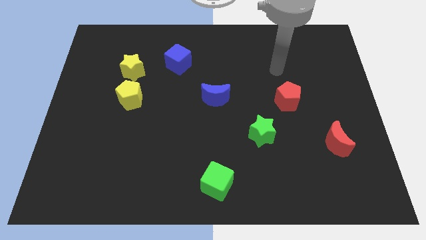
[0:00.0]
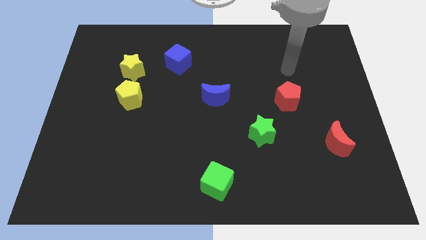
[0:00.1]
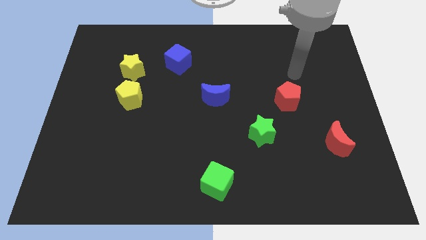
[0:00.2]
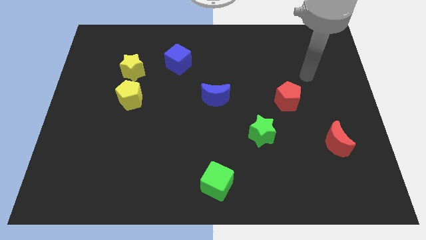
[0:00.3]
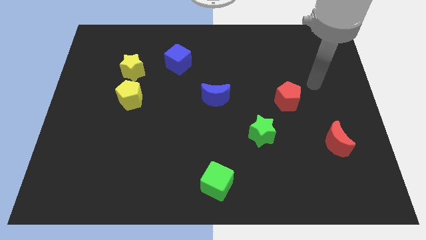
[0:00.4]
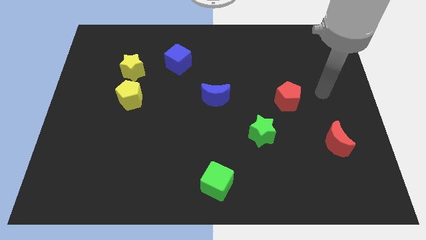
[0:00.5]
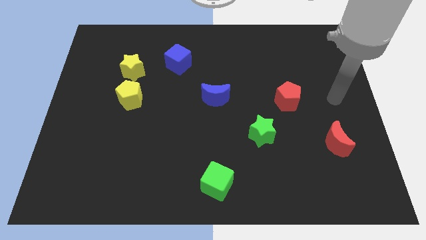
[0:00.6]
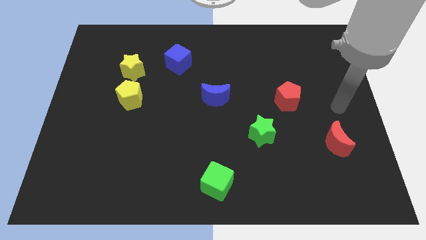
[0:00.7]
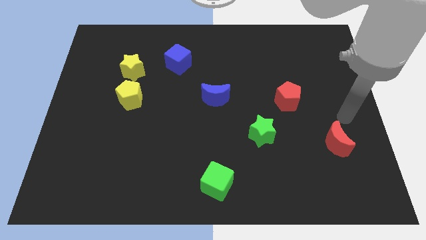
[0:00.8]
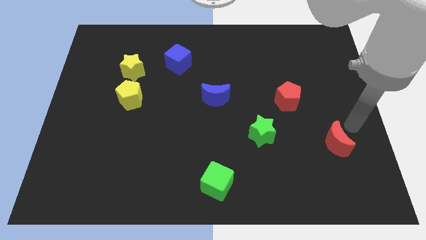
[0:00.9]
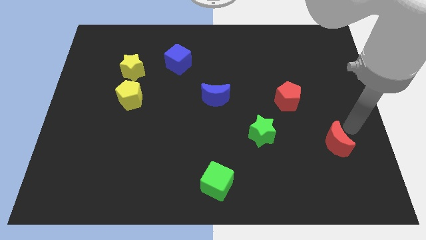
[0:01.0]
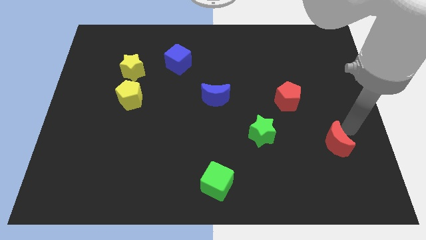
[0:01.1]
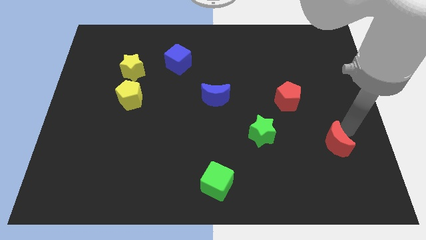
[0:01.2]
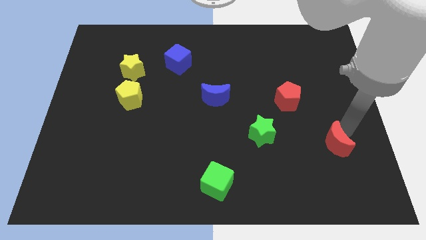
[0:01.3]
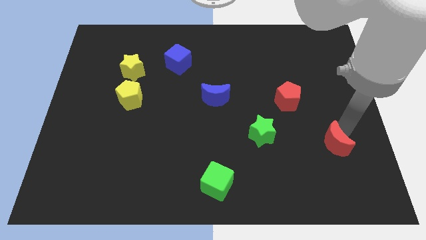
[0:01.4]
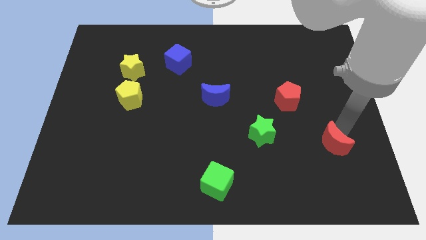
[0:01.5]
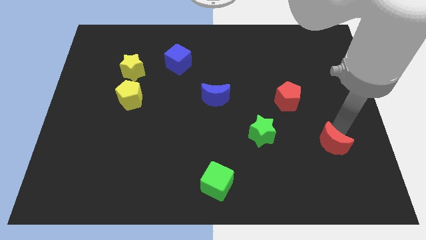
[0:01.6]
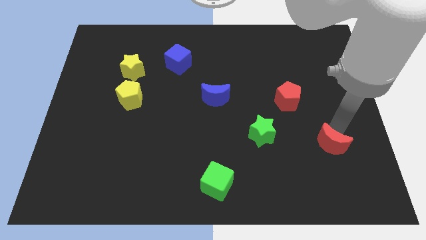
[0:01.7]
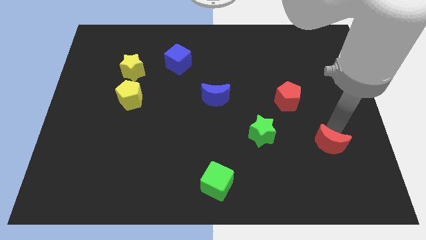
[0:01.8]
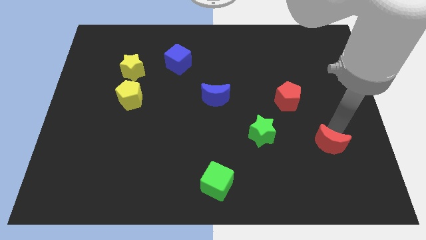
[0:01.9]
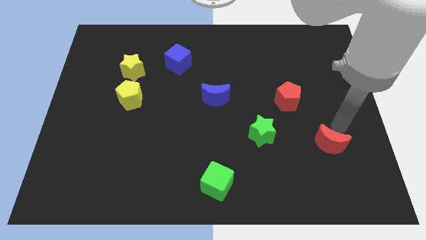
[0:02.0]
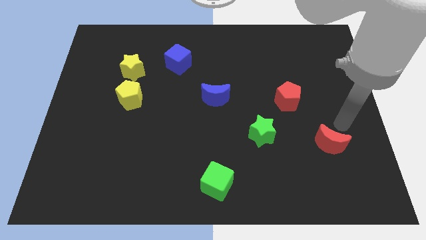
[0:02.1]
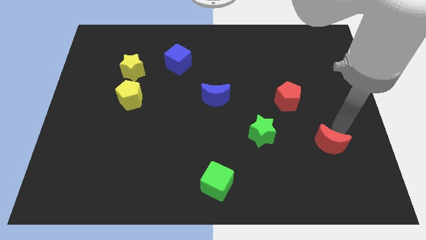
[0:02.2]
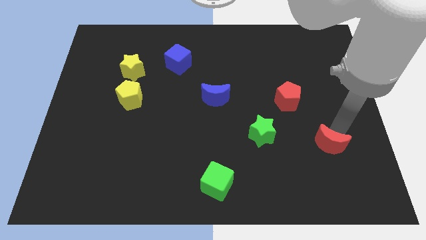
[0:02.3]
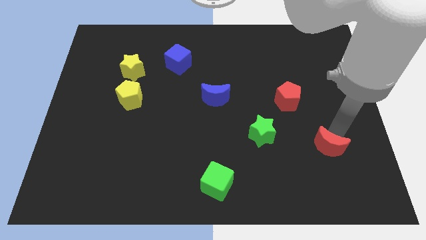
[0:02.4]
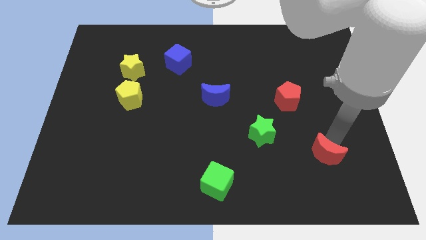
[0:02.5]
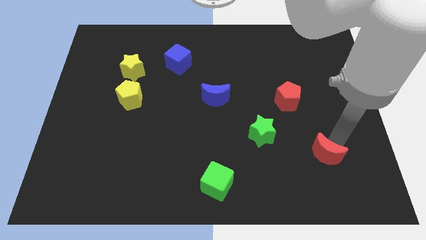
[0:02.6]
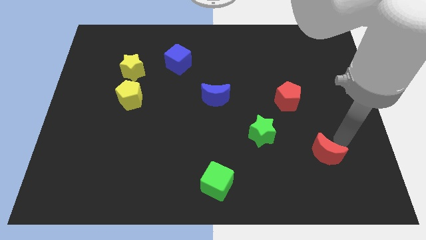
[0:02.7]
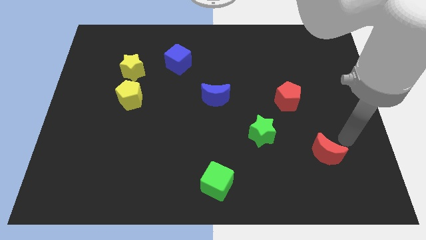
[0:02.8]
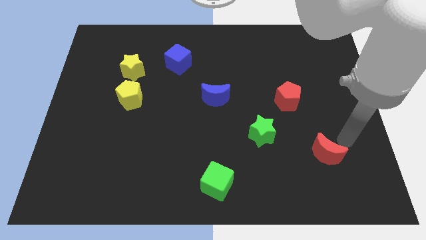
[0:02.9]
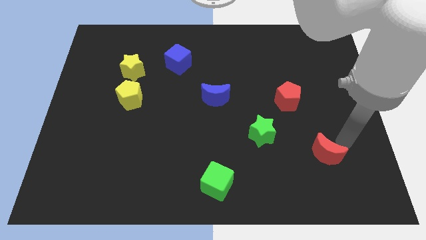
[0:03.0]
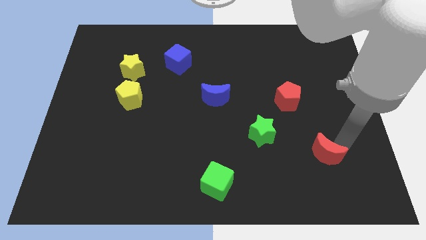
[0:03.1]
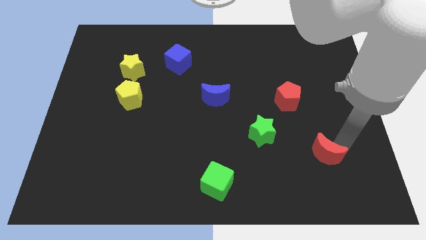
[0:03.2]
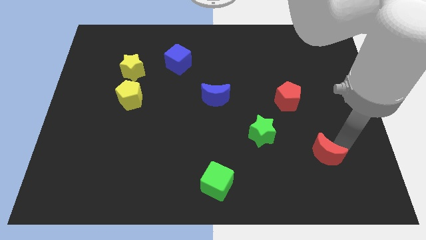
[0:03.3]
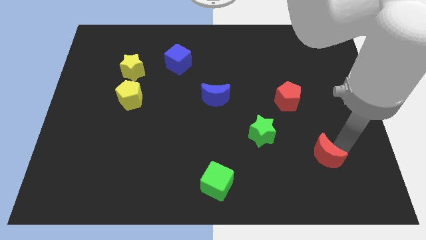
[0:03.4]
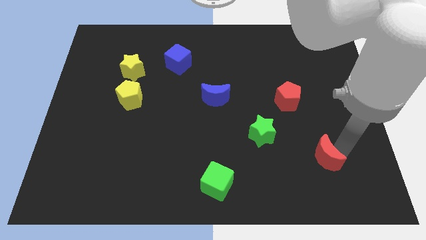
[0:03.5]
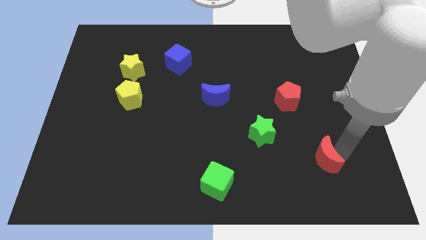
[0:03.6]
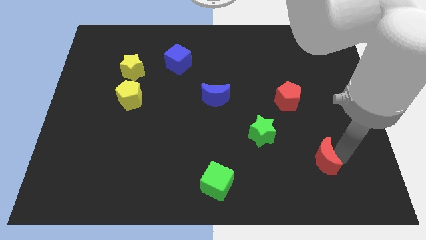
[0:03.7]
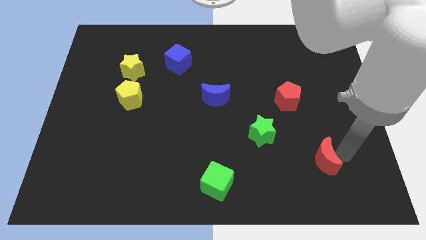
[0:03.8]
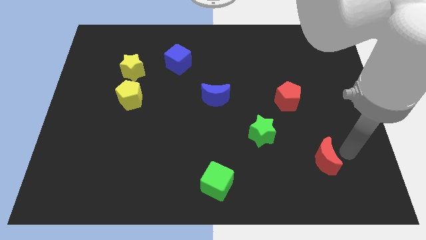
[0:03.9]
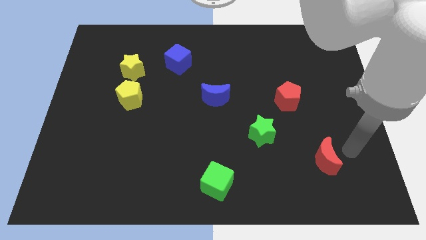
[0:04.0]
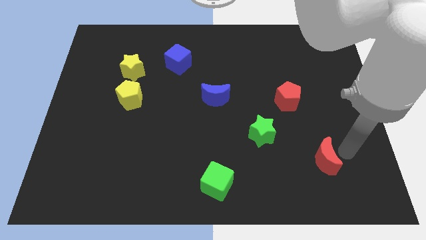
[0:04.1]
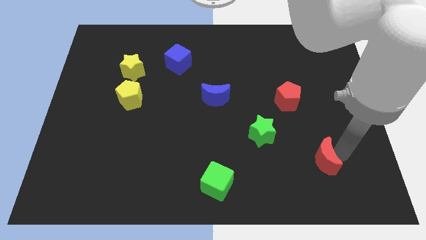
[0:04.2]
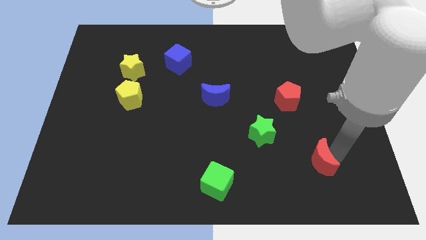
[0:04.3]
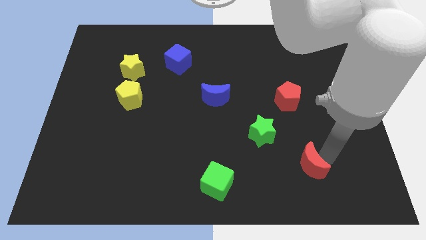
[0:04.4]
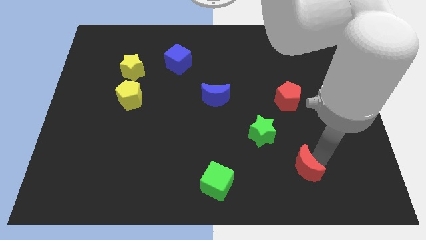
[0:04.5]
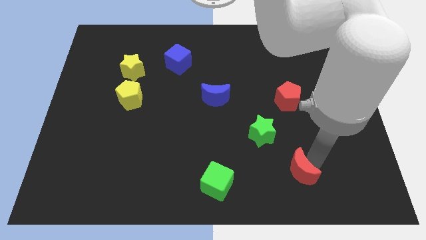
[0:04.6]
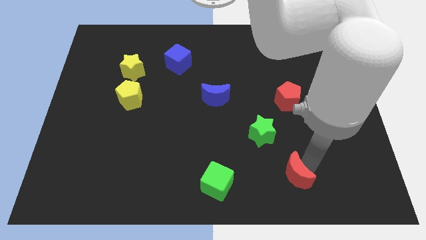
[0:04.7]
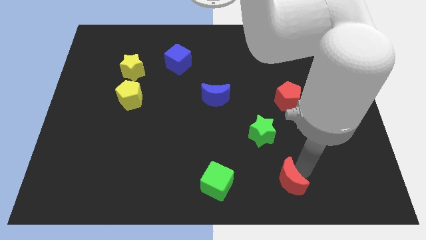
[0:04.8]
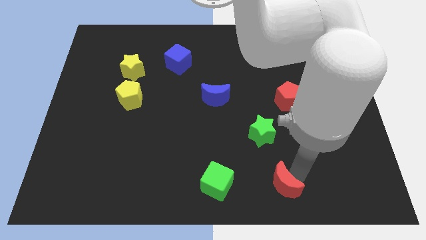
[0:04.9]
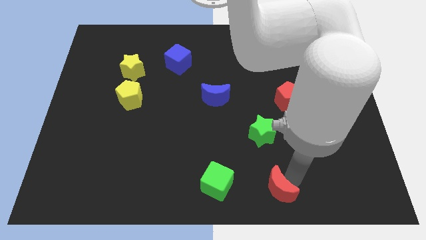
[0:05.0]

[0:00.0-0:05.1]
slide the red moon to the bottom side

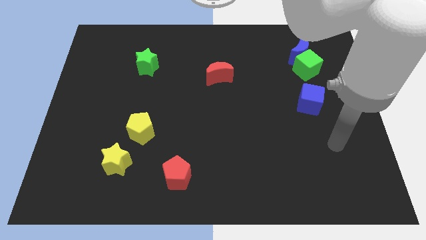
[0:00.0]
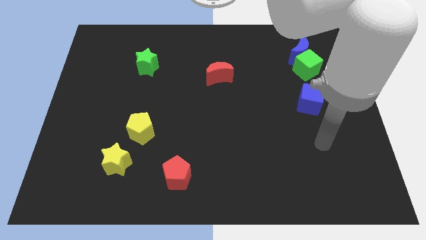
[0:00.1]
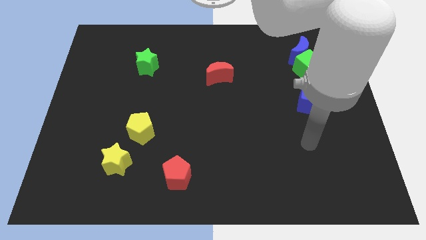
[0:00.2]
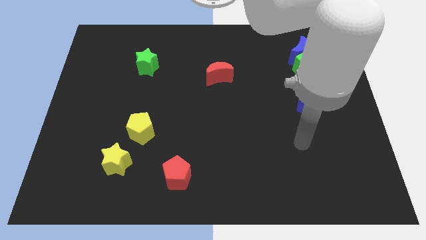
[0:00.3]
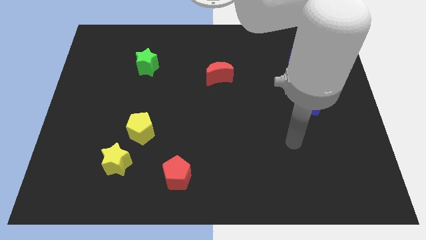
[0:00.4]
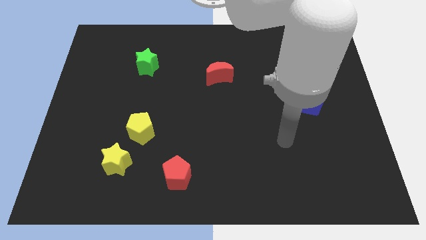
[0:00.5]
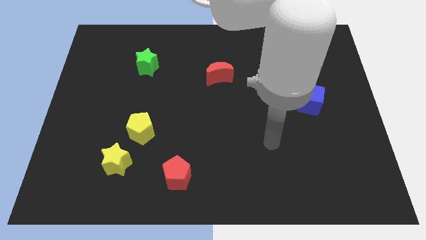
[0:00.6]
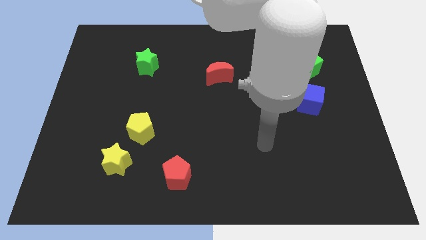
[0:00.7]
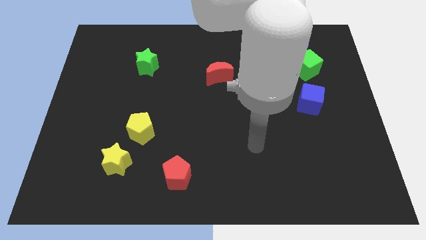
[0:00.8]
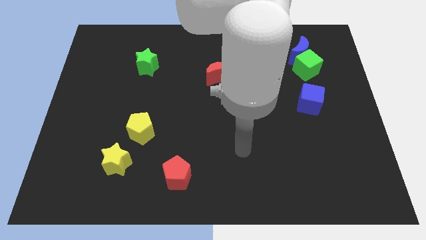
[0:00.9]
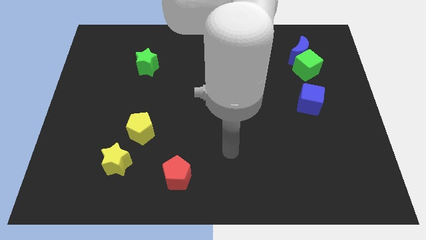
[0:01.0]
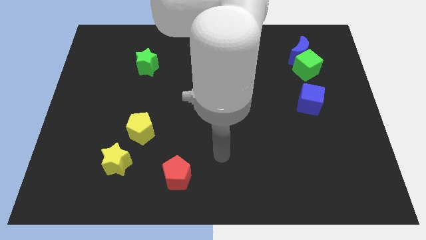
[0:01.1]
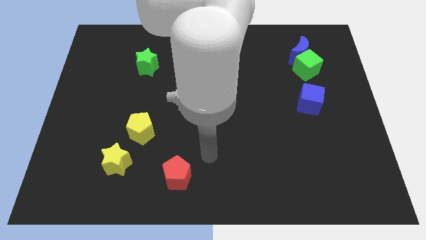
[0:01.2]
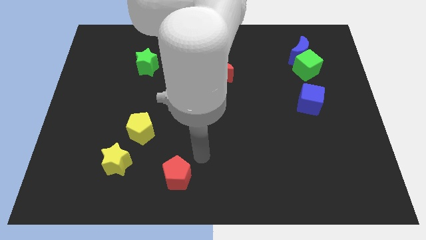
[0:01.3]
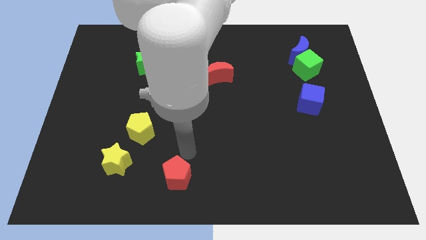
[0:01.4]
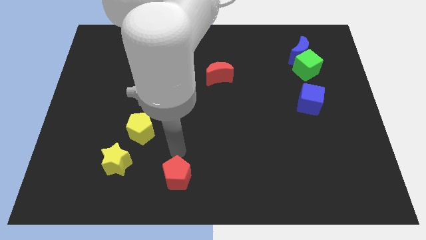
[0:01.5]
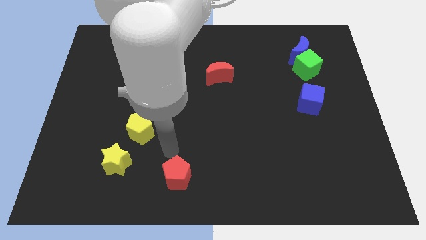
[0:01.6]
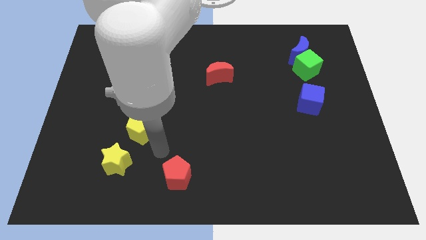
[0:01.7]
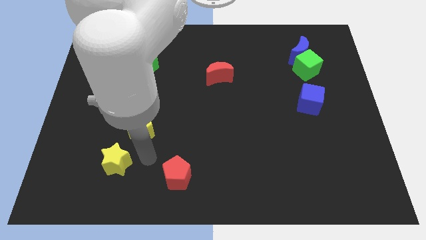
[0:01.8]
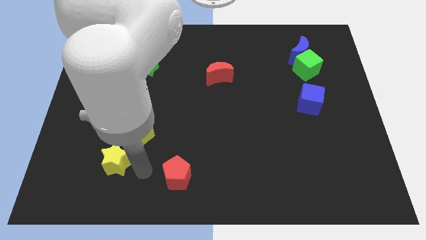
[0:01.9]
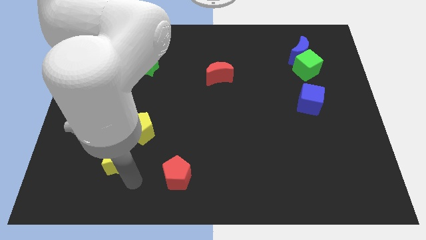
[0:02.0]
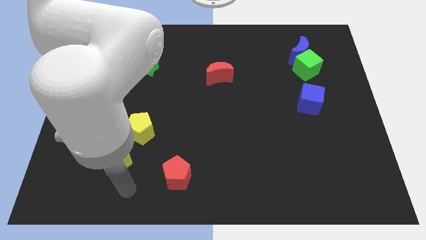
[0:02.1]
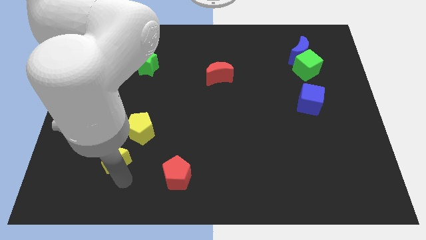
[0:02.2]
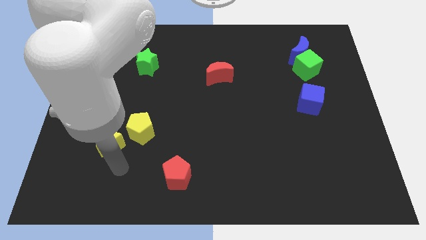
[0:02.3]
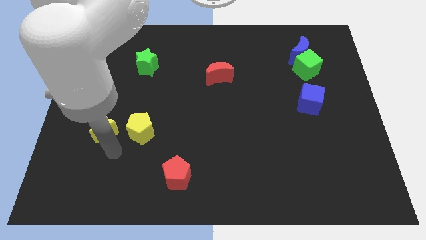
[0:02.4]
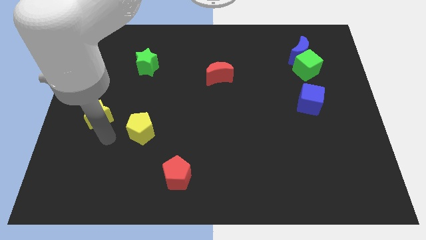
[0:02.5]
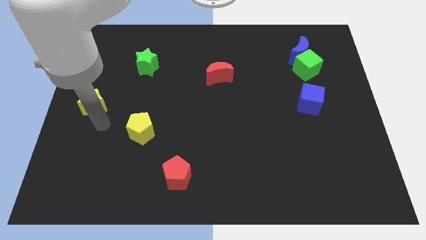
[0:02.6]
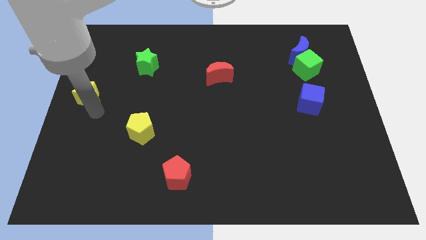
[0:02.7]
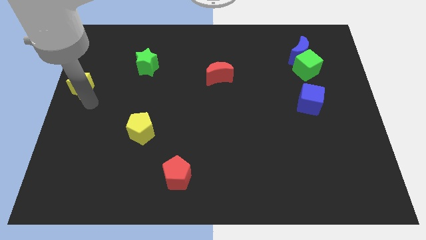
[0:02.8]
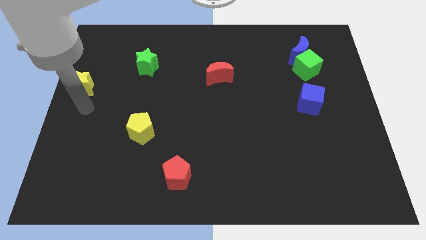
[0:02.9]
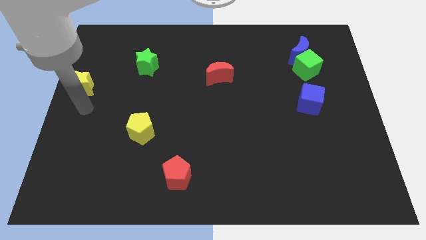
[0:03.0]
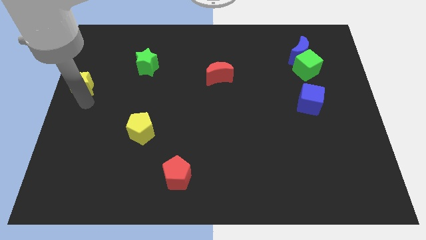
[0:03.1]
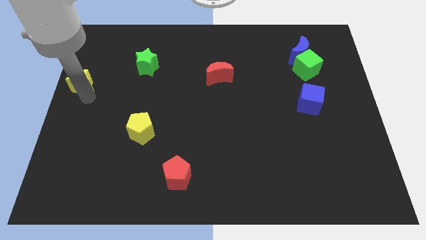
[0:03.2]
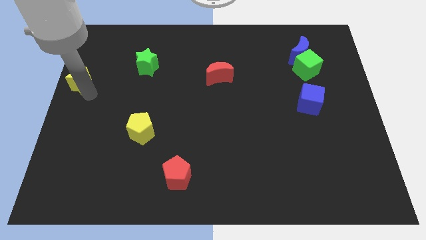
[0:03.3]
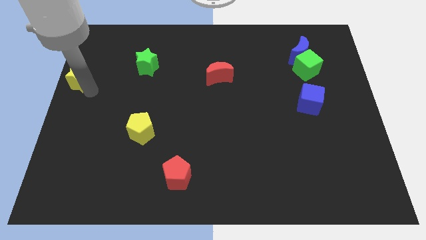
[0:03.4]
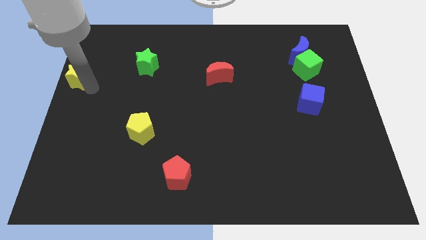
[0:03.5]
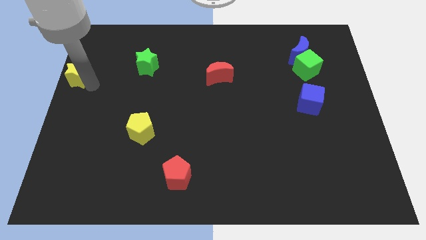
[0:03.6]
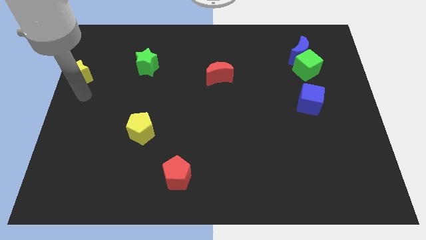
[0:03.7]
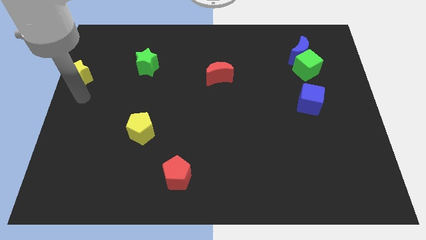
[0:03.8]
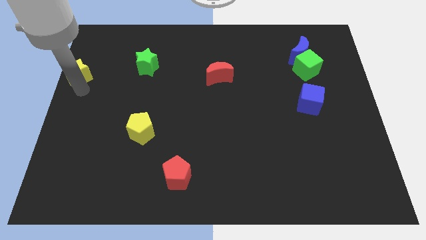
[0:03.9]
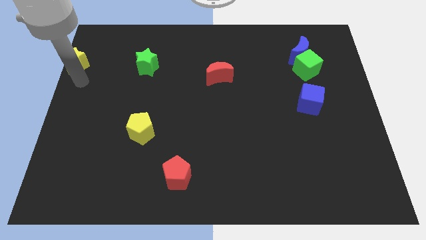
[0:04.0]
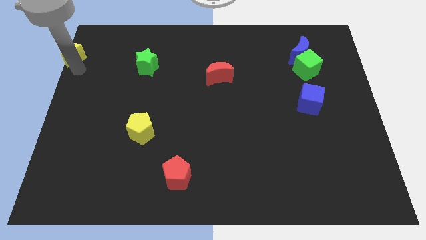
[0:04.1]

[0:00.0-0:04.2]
move the yellow star to the top left of the board
